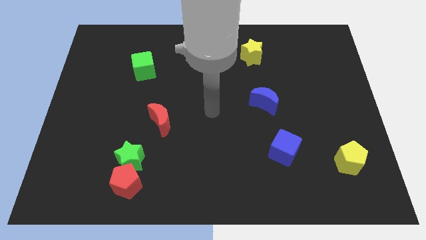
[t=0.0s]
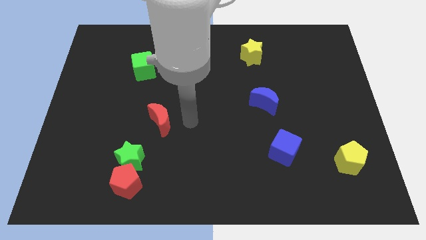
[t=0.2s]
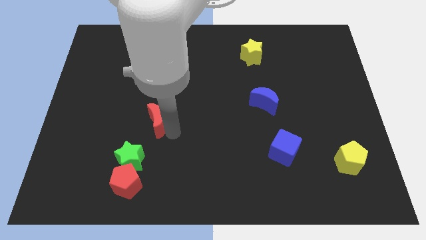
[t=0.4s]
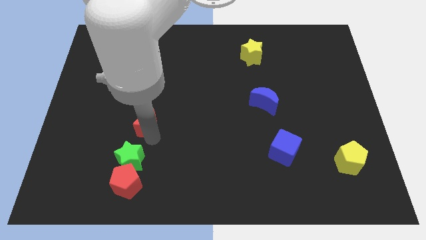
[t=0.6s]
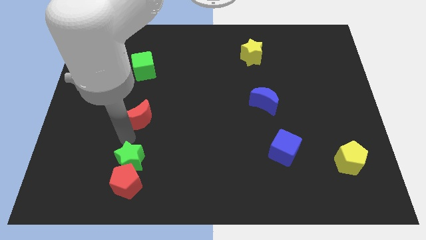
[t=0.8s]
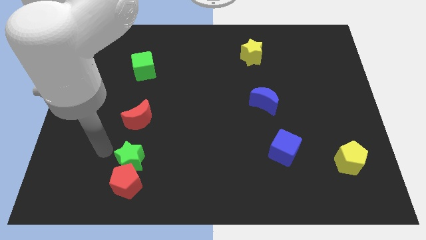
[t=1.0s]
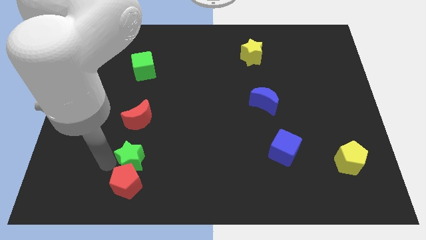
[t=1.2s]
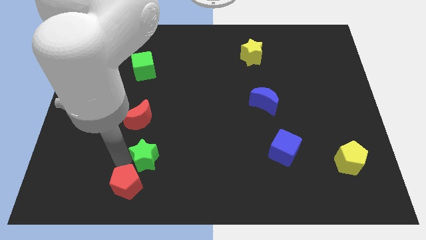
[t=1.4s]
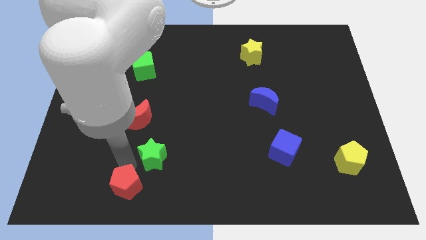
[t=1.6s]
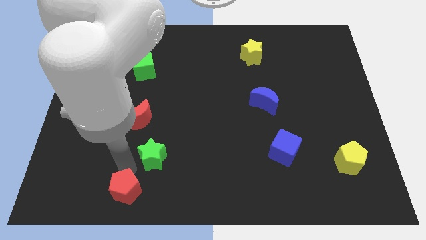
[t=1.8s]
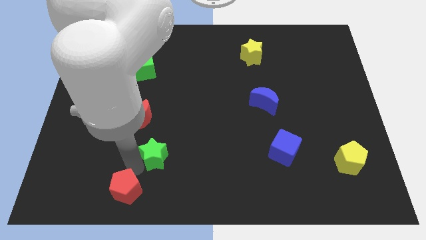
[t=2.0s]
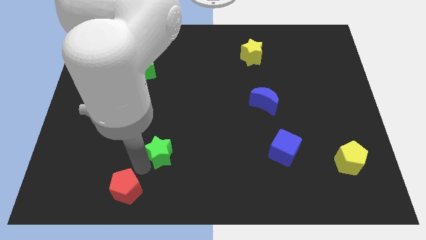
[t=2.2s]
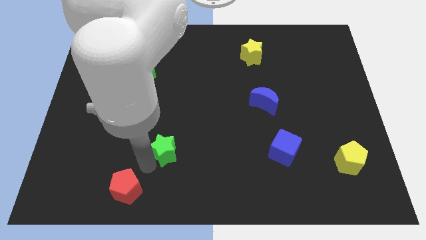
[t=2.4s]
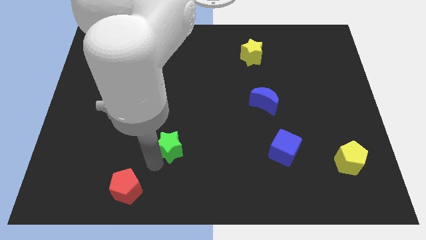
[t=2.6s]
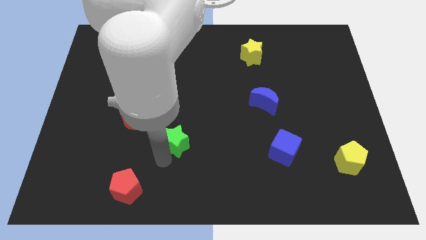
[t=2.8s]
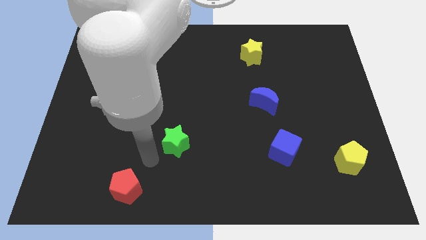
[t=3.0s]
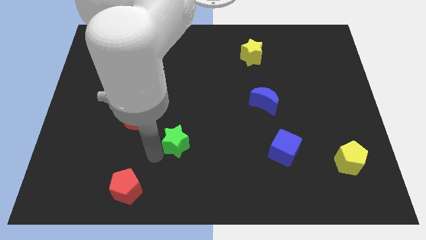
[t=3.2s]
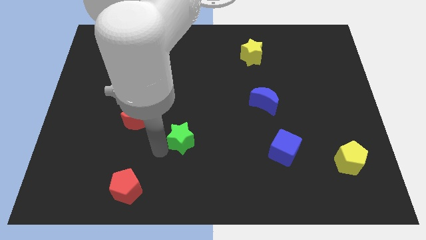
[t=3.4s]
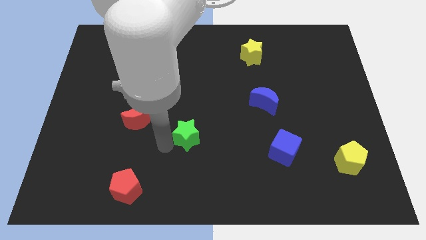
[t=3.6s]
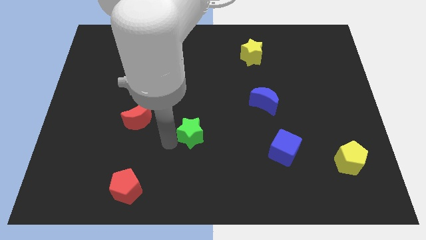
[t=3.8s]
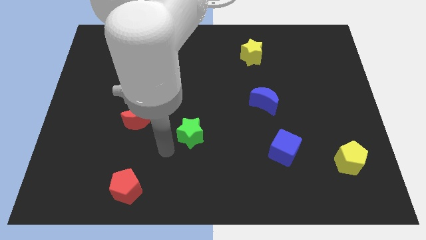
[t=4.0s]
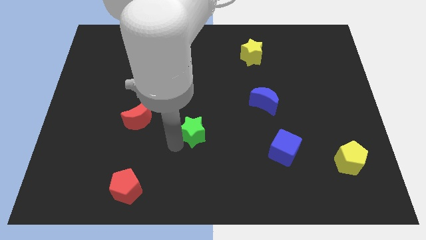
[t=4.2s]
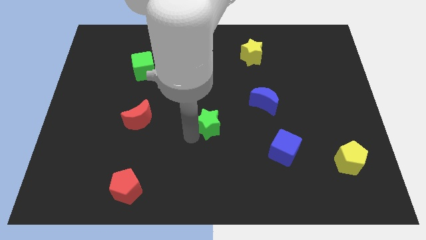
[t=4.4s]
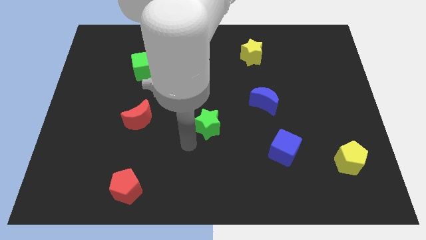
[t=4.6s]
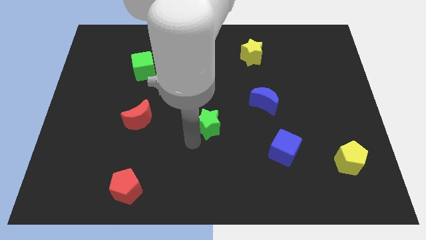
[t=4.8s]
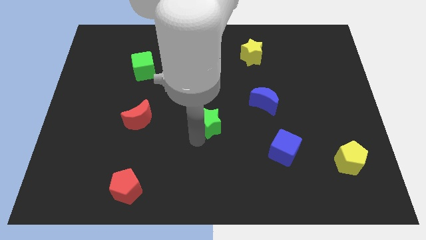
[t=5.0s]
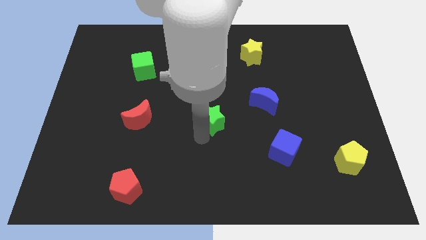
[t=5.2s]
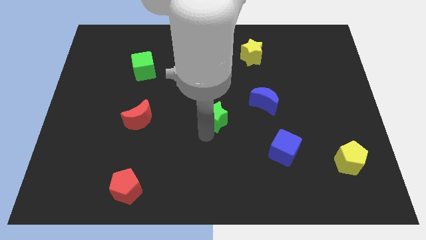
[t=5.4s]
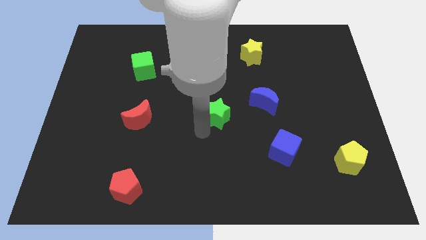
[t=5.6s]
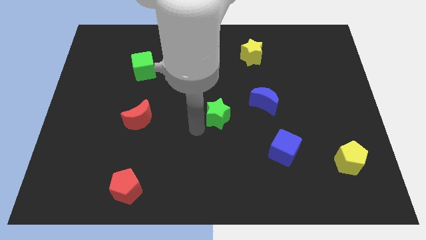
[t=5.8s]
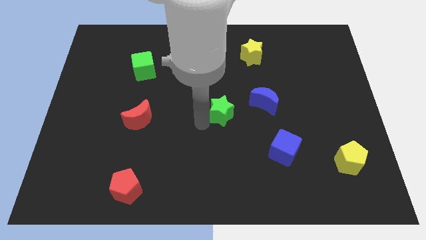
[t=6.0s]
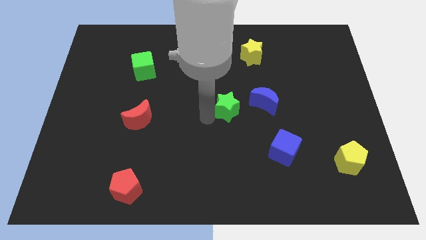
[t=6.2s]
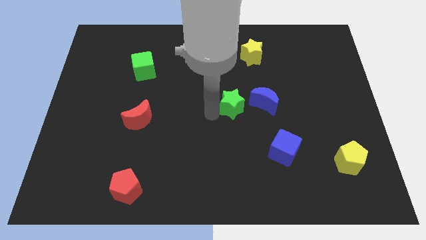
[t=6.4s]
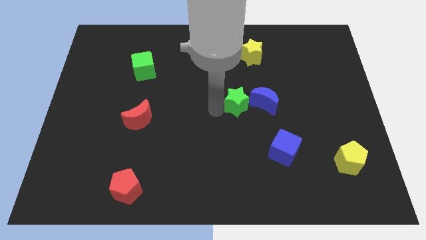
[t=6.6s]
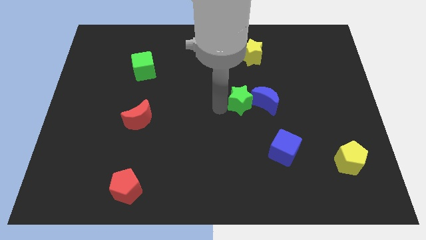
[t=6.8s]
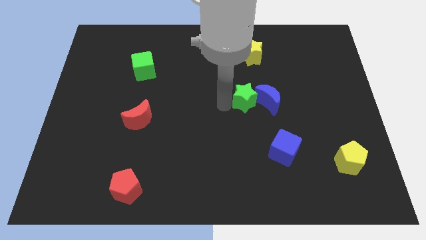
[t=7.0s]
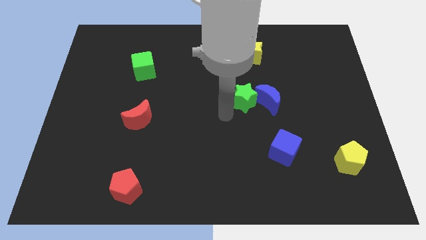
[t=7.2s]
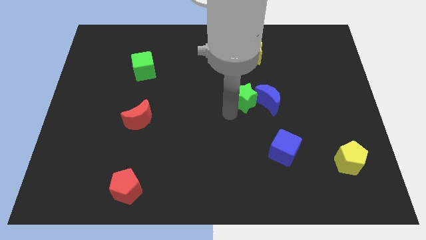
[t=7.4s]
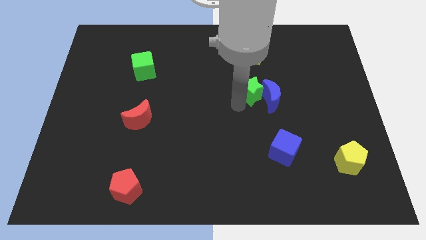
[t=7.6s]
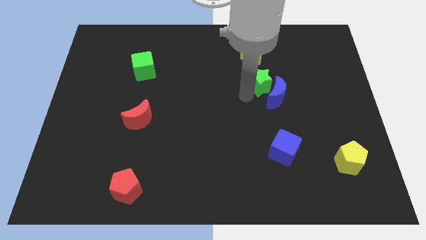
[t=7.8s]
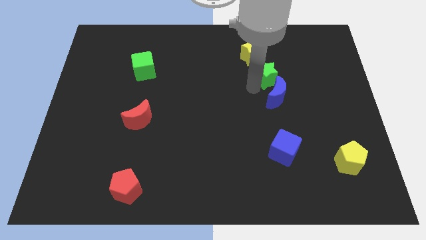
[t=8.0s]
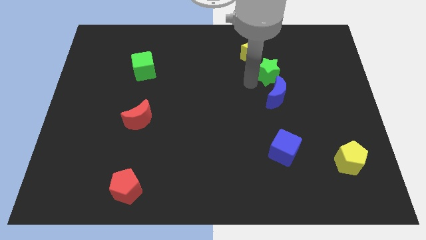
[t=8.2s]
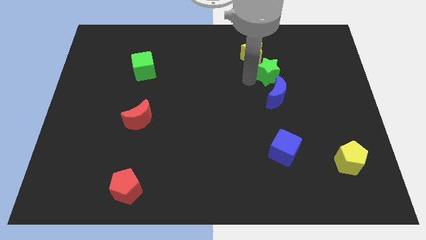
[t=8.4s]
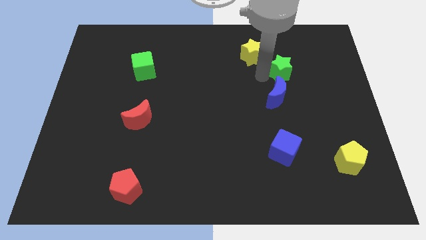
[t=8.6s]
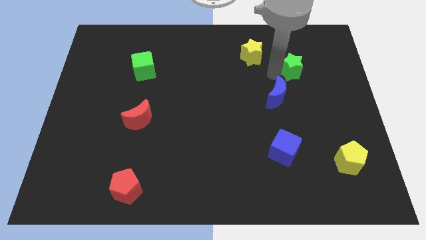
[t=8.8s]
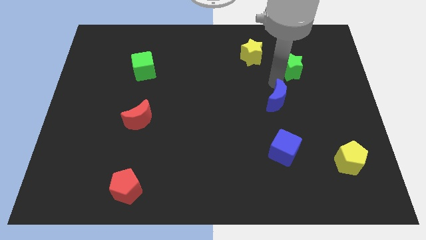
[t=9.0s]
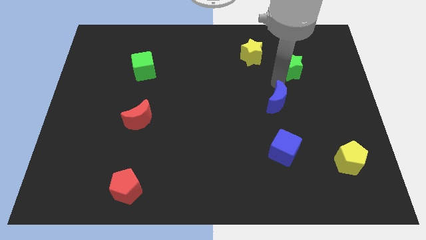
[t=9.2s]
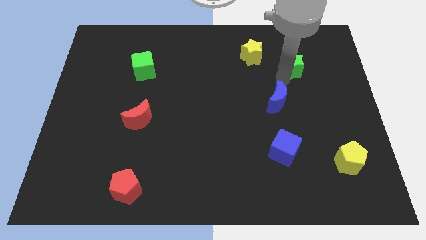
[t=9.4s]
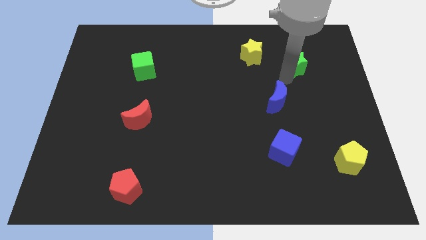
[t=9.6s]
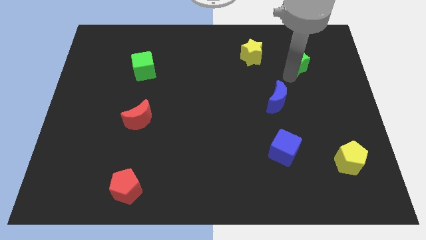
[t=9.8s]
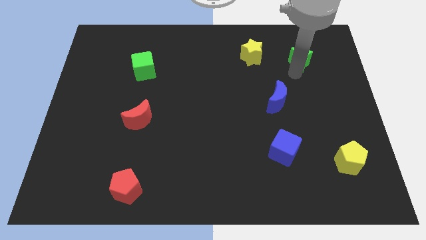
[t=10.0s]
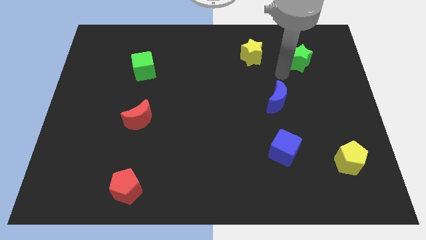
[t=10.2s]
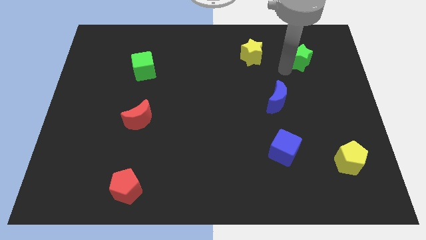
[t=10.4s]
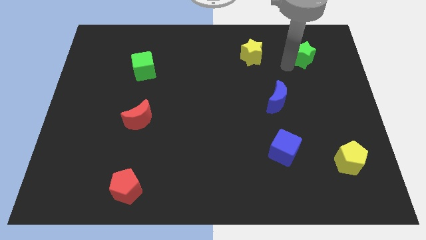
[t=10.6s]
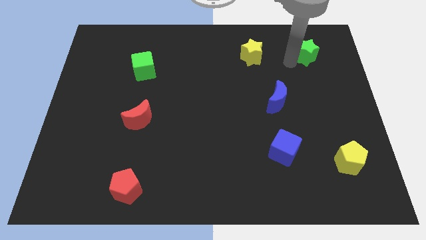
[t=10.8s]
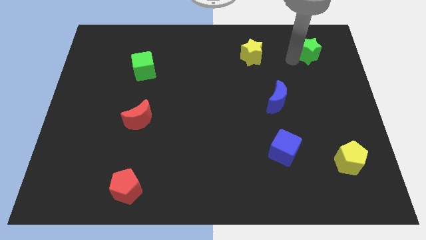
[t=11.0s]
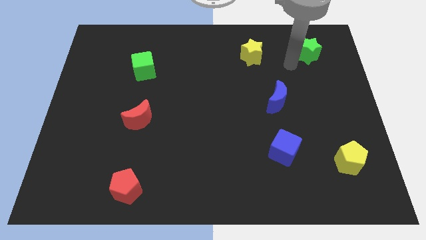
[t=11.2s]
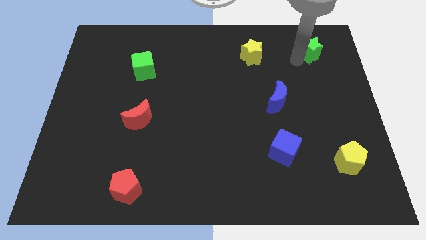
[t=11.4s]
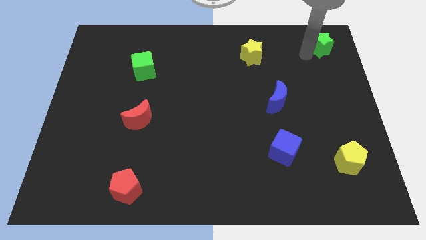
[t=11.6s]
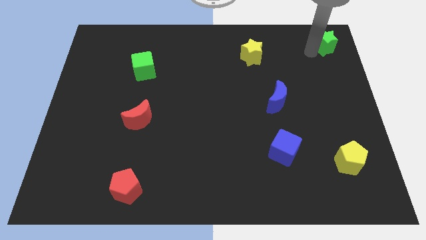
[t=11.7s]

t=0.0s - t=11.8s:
slide the green star to the top right
